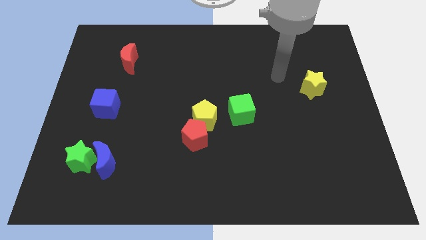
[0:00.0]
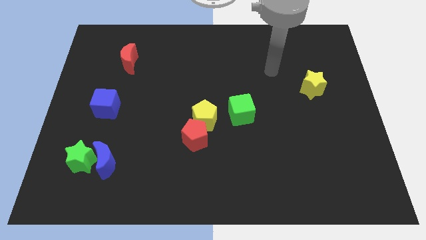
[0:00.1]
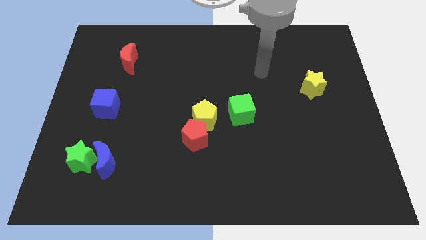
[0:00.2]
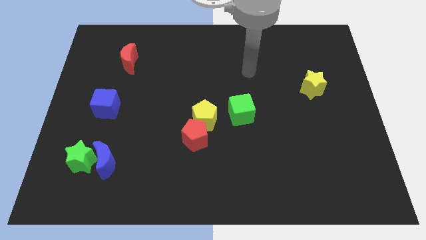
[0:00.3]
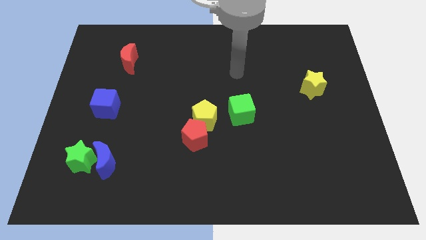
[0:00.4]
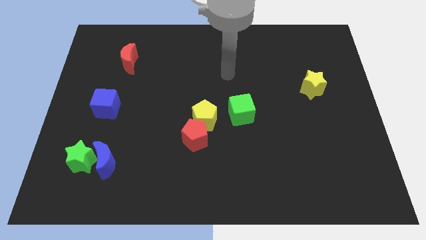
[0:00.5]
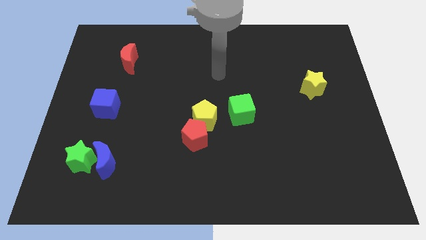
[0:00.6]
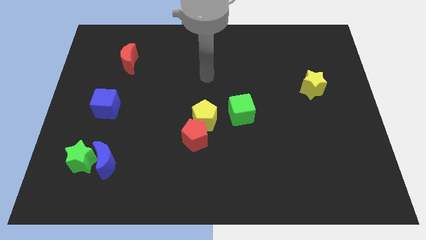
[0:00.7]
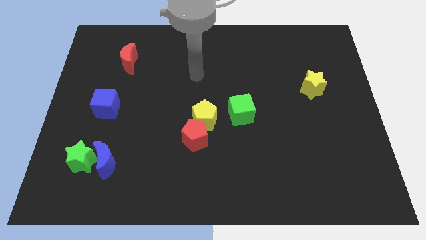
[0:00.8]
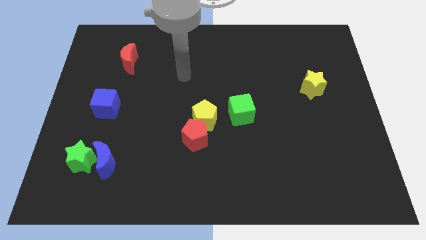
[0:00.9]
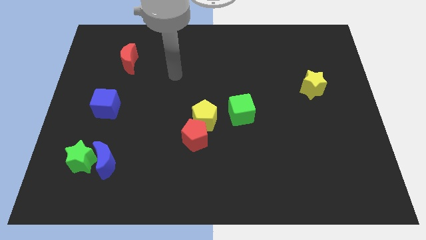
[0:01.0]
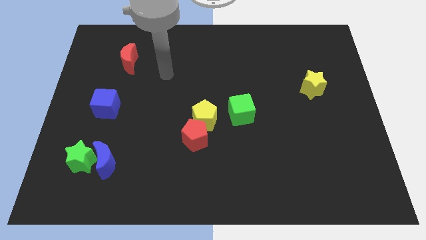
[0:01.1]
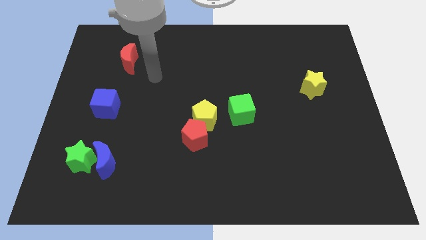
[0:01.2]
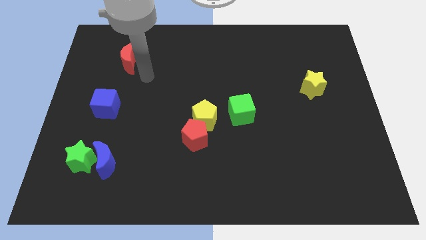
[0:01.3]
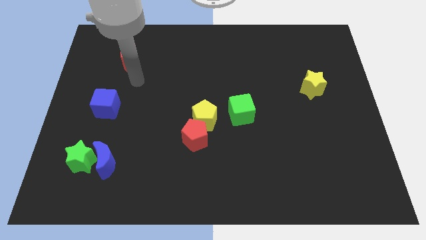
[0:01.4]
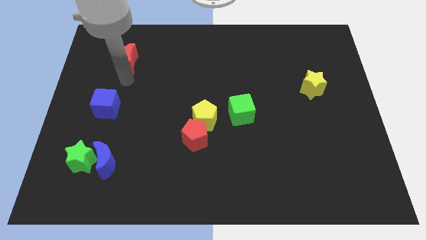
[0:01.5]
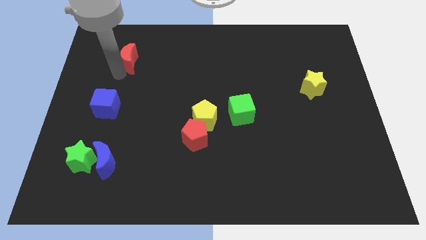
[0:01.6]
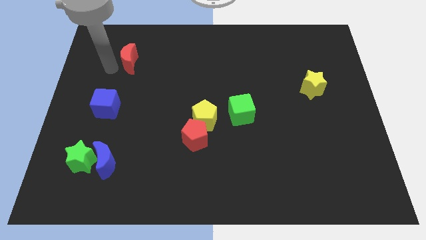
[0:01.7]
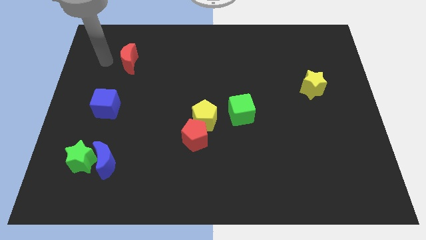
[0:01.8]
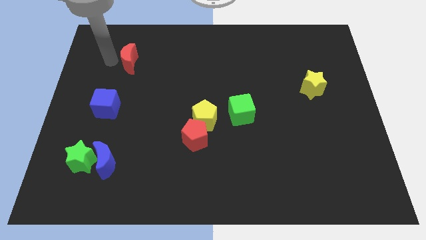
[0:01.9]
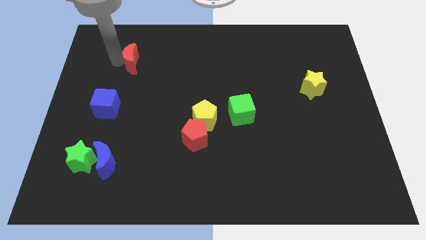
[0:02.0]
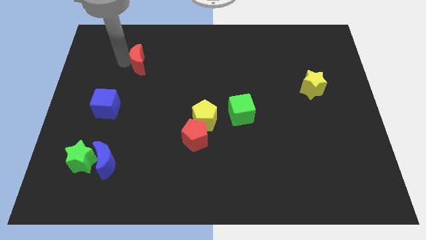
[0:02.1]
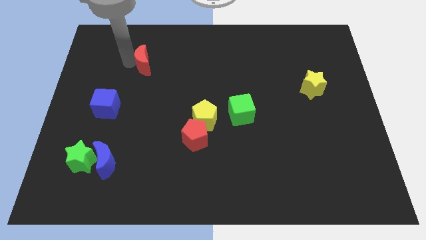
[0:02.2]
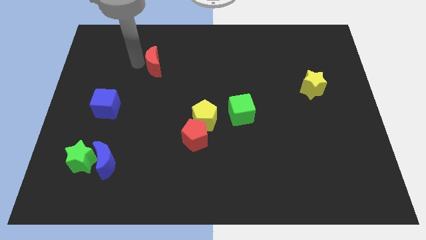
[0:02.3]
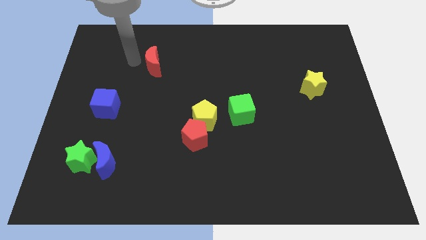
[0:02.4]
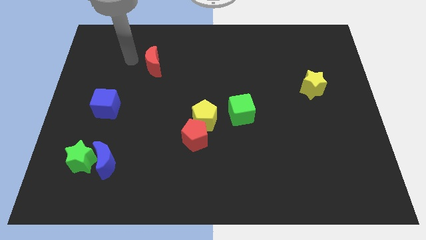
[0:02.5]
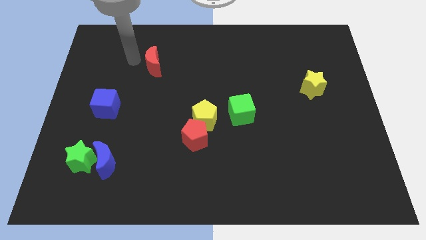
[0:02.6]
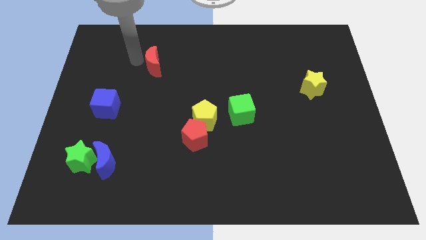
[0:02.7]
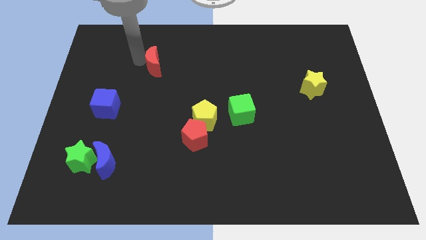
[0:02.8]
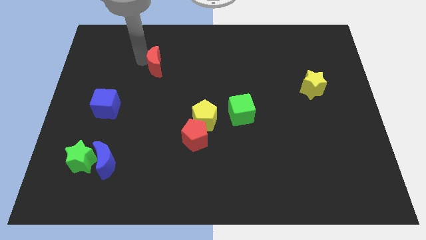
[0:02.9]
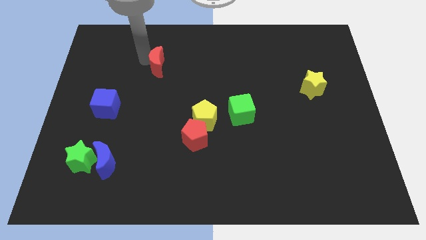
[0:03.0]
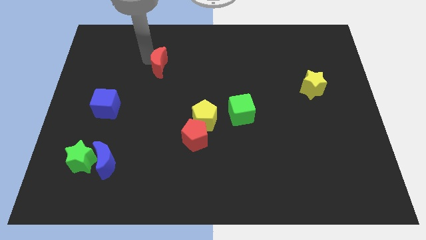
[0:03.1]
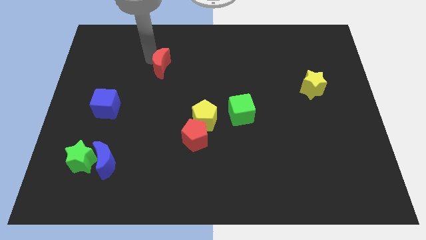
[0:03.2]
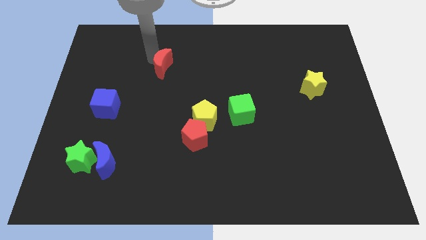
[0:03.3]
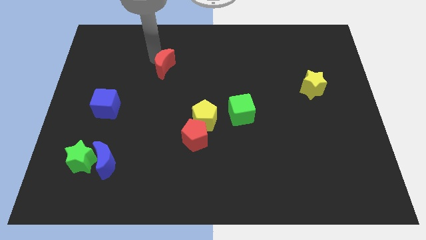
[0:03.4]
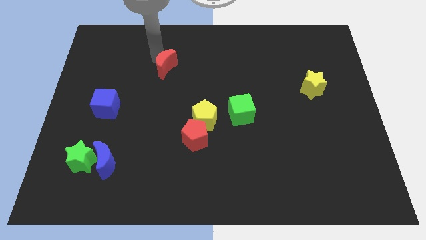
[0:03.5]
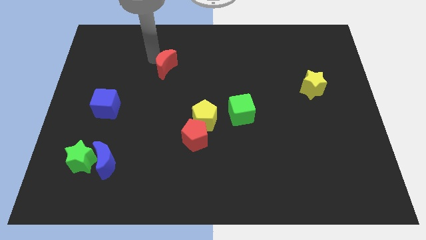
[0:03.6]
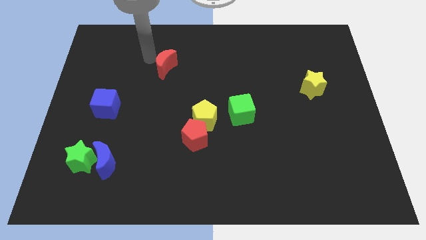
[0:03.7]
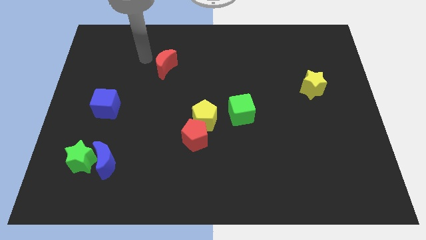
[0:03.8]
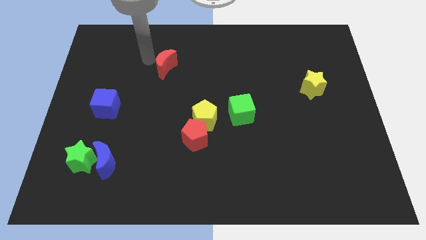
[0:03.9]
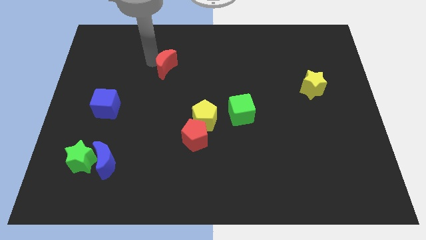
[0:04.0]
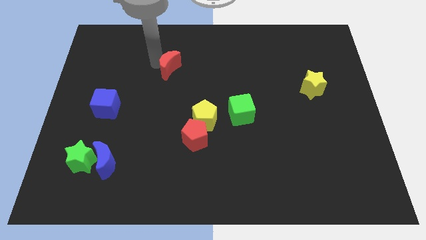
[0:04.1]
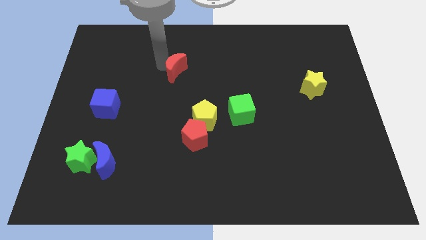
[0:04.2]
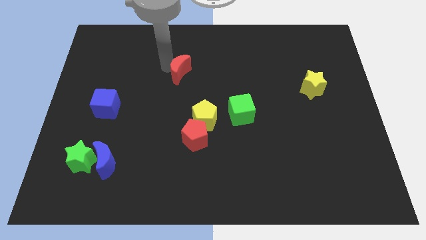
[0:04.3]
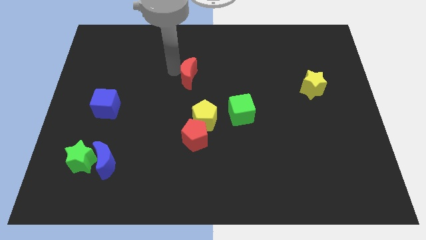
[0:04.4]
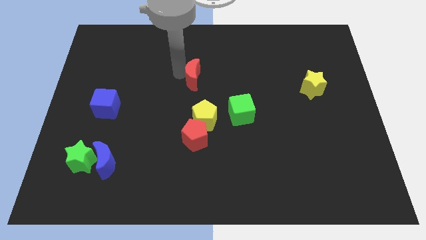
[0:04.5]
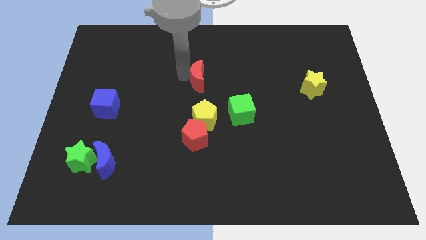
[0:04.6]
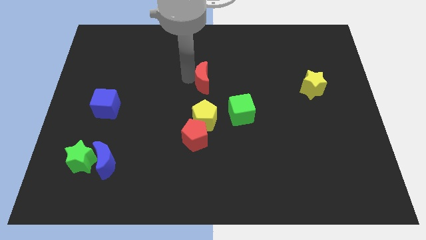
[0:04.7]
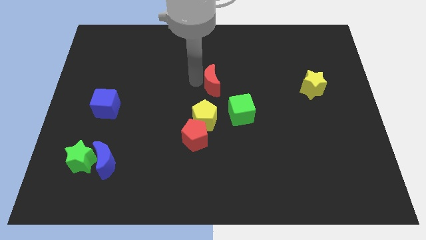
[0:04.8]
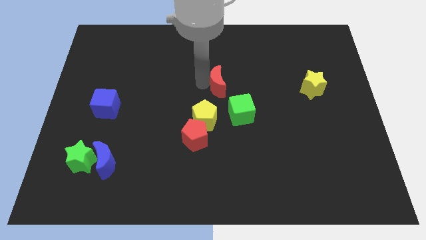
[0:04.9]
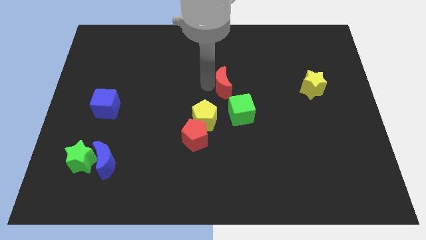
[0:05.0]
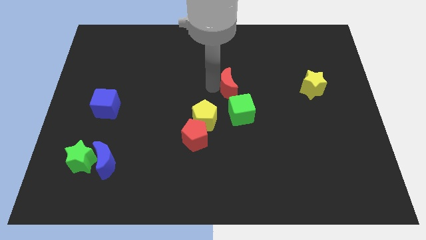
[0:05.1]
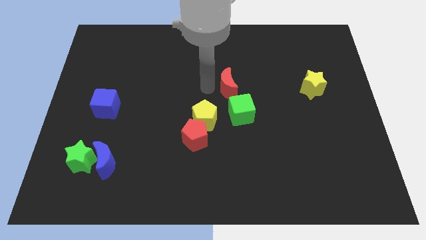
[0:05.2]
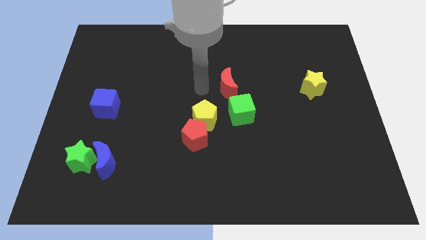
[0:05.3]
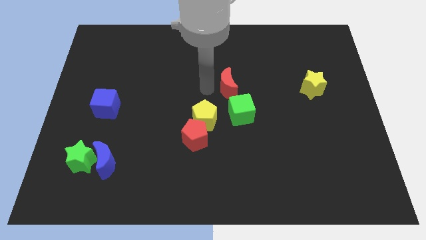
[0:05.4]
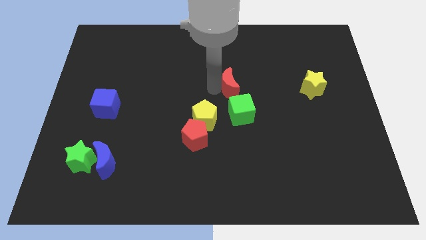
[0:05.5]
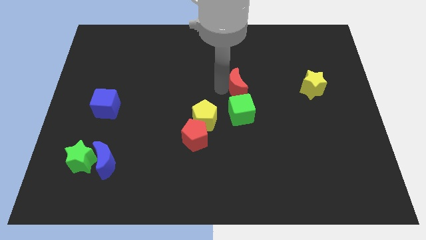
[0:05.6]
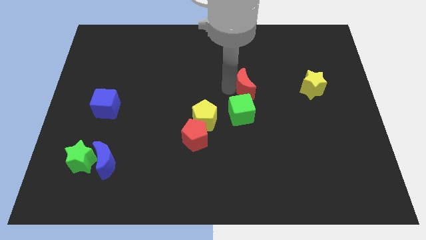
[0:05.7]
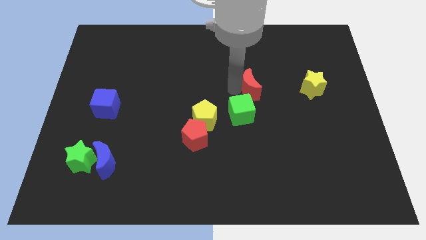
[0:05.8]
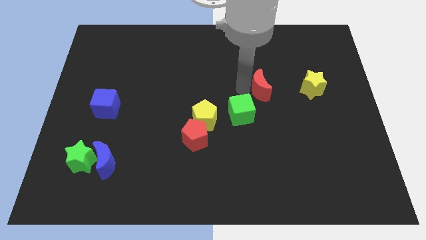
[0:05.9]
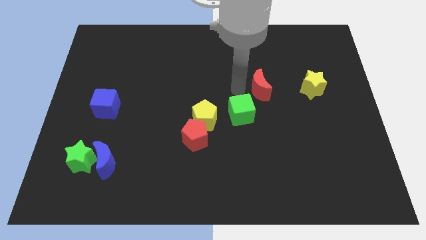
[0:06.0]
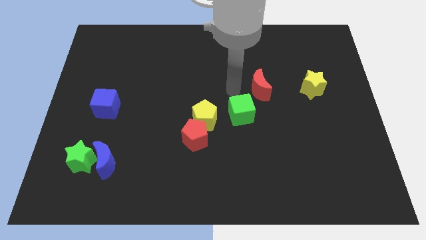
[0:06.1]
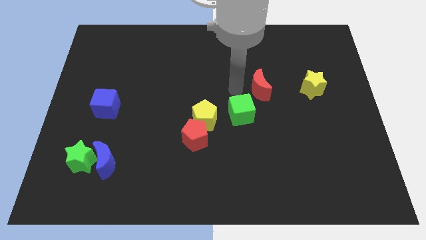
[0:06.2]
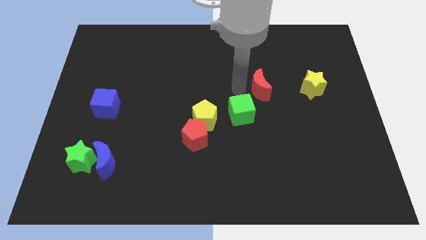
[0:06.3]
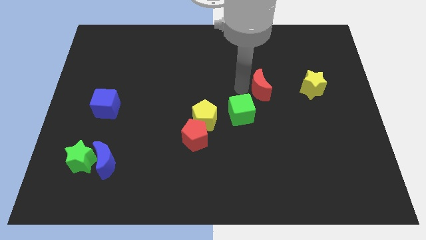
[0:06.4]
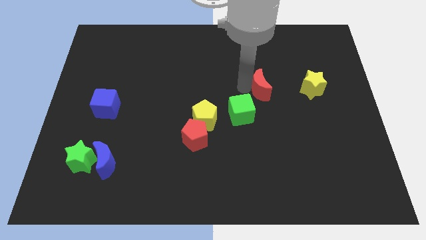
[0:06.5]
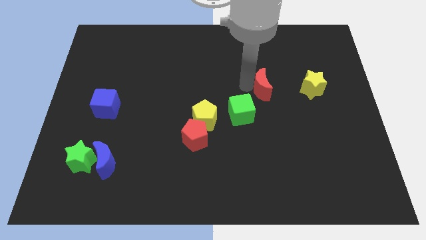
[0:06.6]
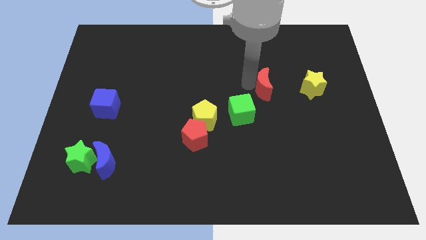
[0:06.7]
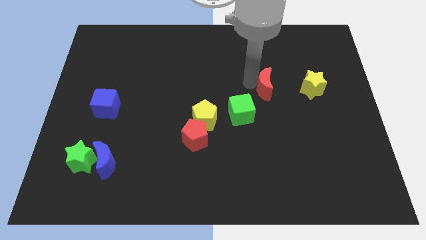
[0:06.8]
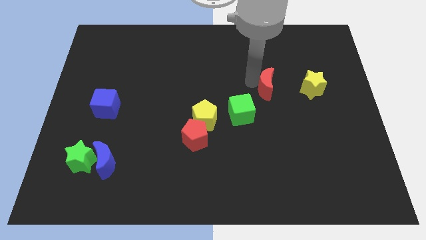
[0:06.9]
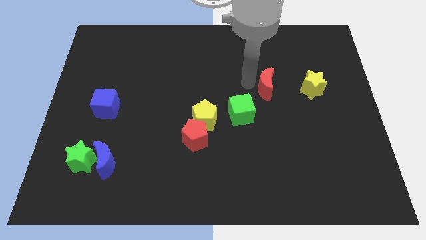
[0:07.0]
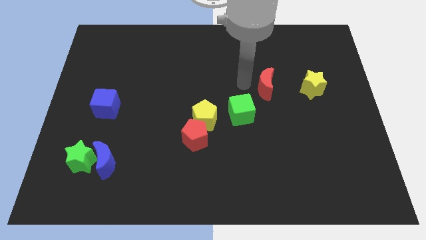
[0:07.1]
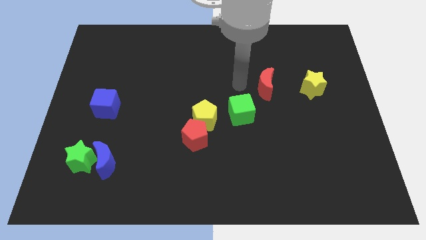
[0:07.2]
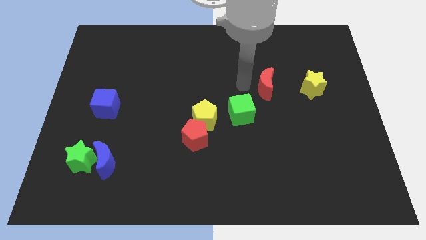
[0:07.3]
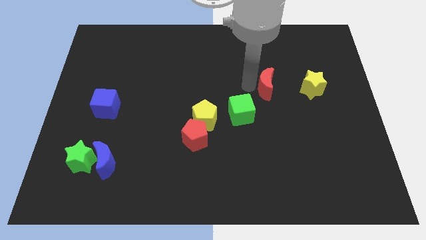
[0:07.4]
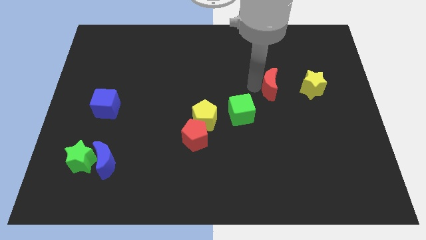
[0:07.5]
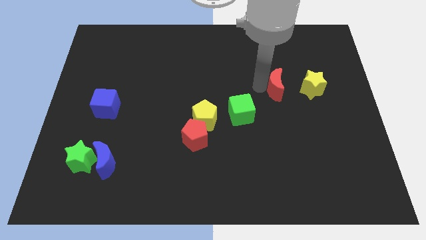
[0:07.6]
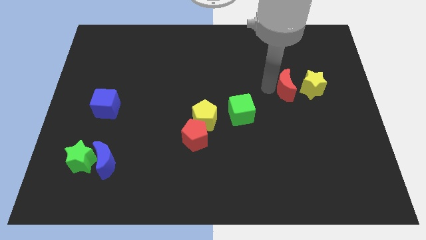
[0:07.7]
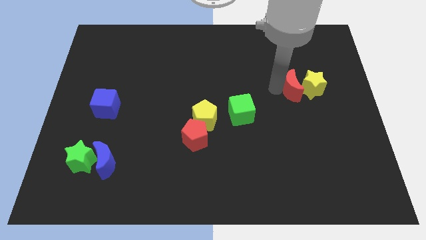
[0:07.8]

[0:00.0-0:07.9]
slide the red moon next to the yellow star
